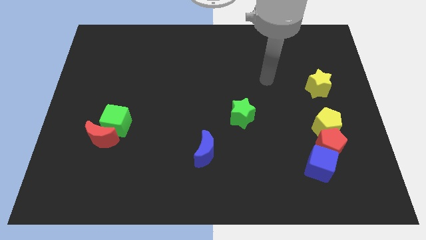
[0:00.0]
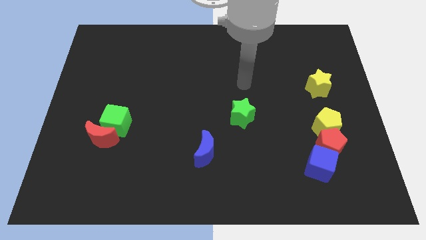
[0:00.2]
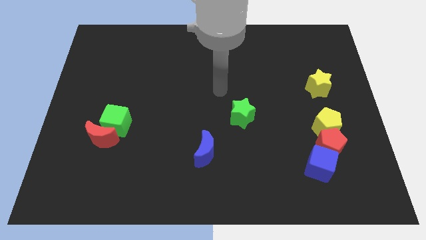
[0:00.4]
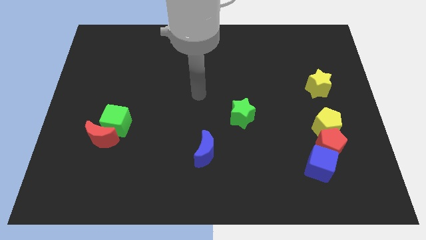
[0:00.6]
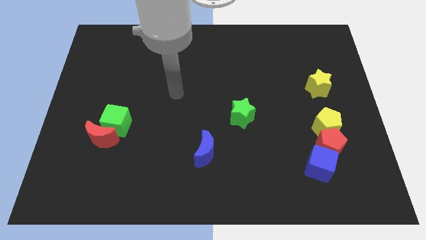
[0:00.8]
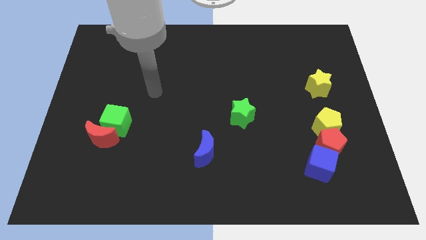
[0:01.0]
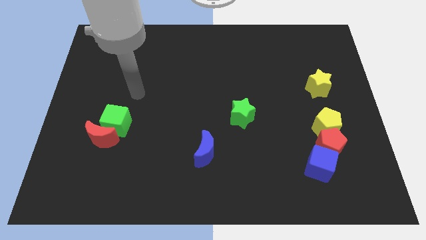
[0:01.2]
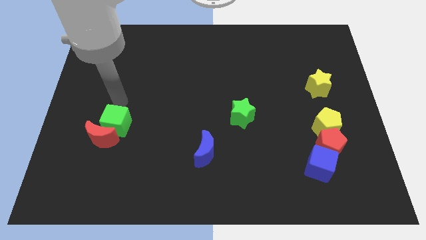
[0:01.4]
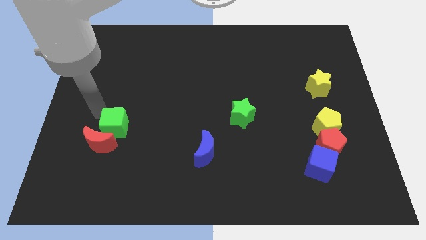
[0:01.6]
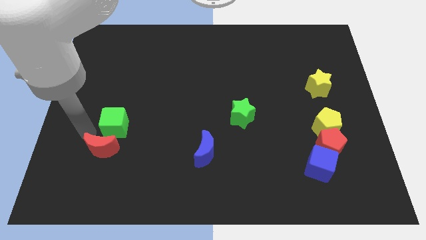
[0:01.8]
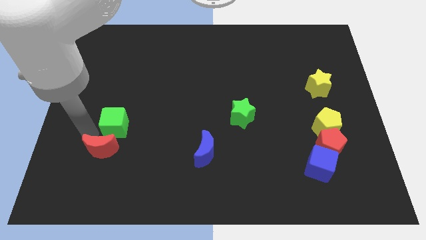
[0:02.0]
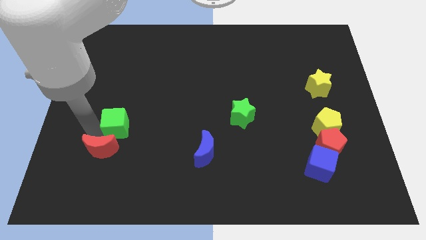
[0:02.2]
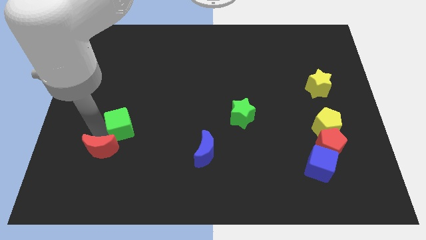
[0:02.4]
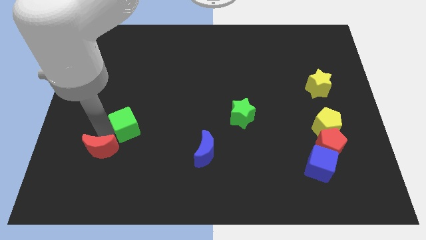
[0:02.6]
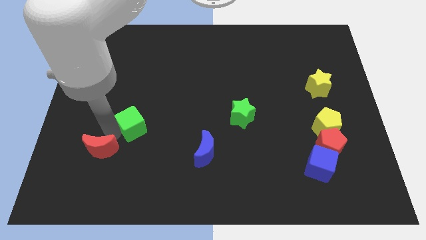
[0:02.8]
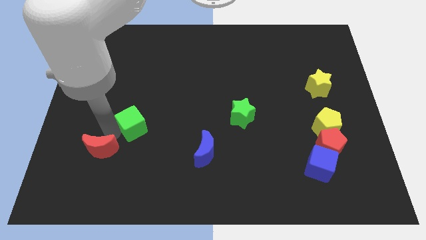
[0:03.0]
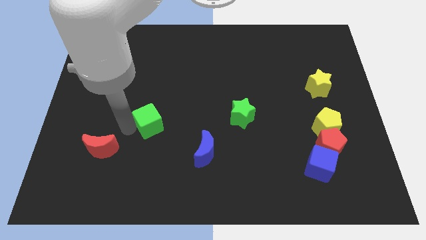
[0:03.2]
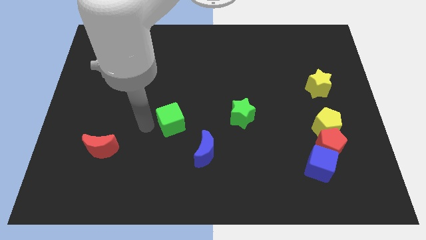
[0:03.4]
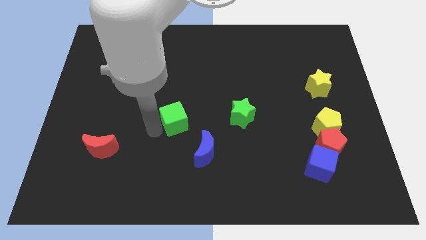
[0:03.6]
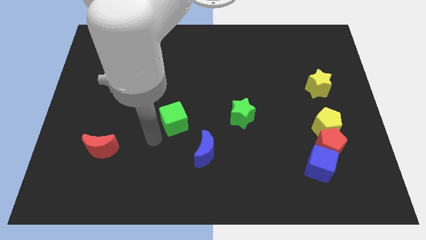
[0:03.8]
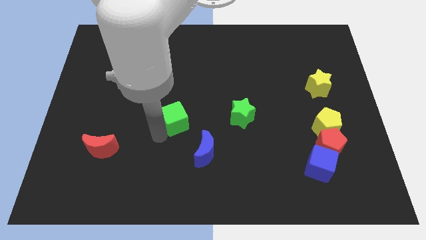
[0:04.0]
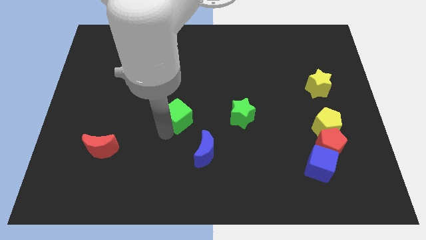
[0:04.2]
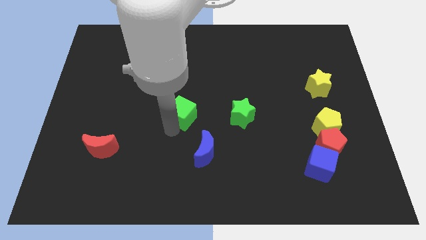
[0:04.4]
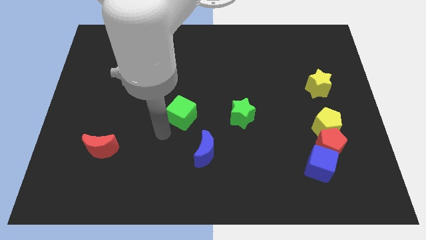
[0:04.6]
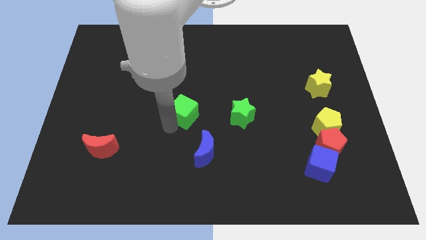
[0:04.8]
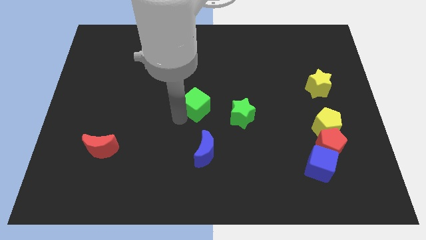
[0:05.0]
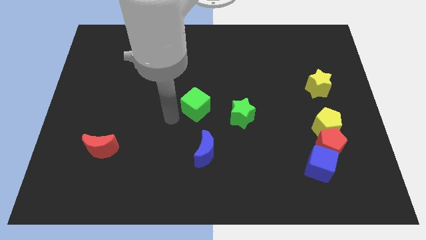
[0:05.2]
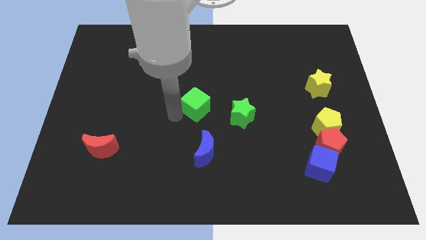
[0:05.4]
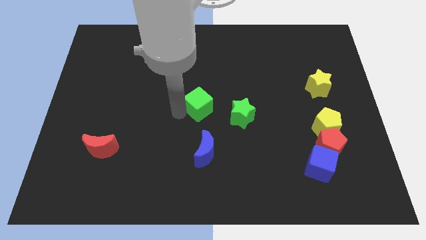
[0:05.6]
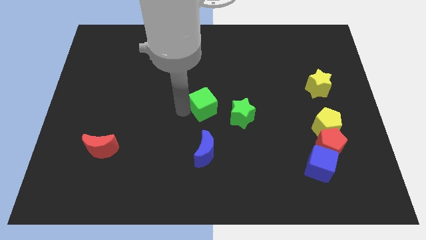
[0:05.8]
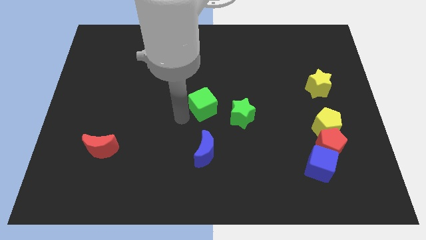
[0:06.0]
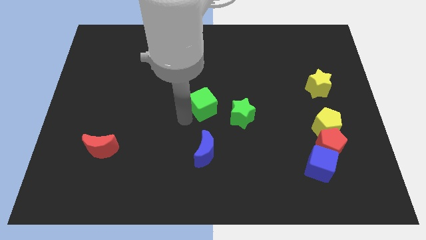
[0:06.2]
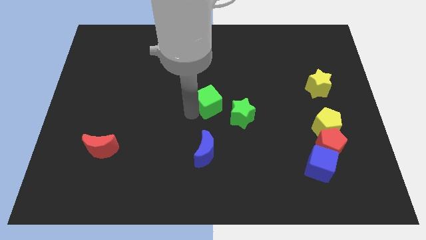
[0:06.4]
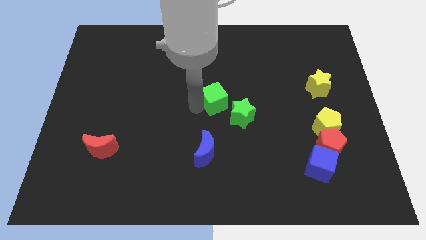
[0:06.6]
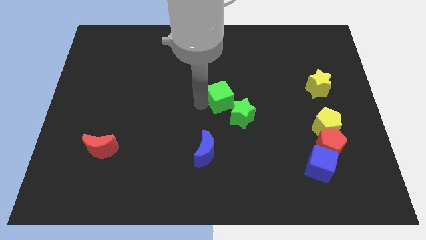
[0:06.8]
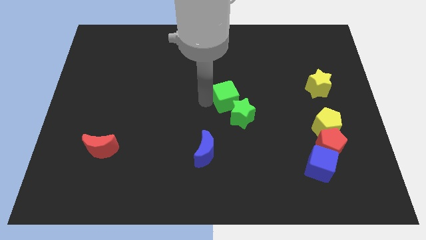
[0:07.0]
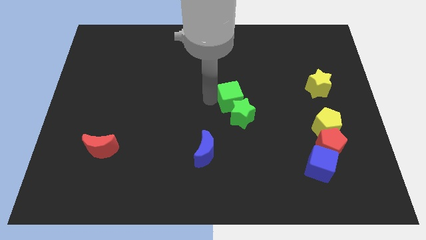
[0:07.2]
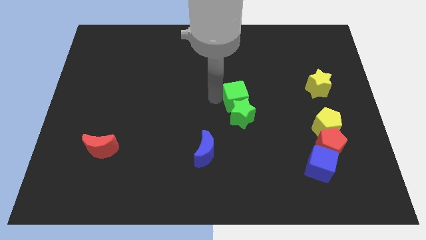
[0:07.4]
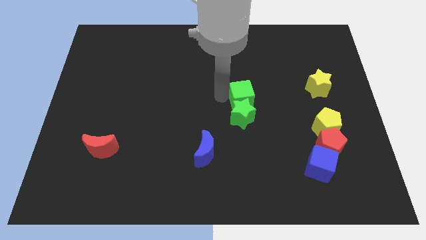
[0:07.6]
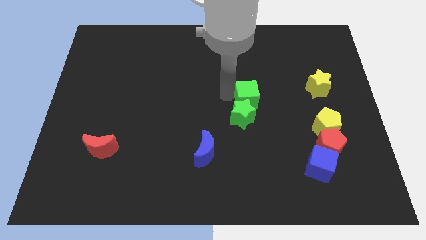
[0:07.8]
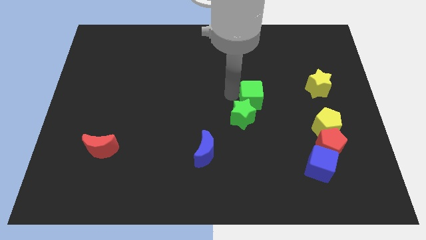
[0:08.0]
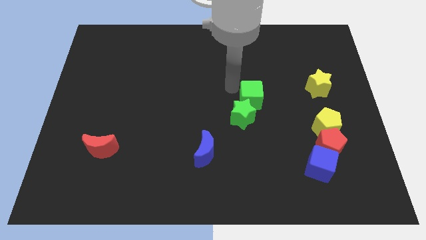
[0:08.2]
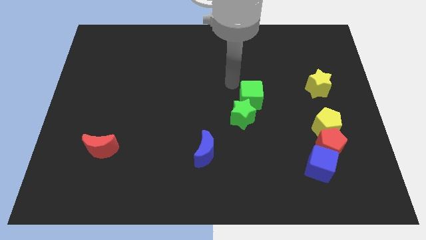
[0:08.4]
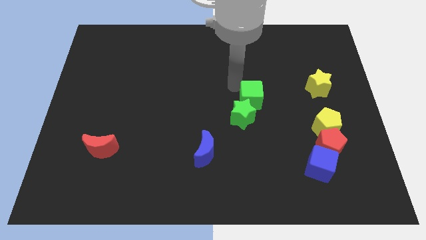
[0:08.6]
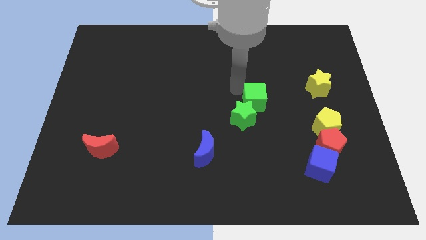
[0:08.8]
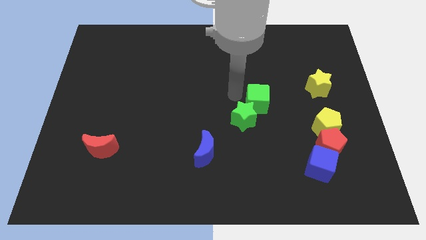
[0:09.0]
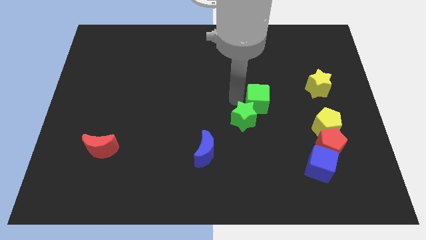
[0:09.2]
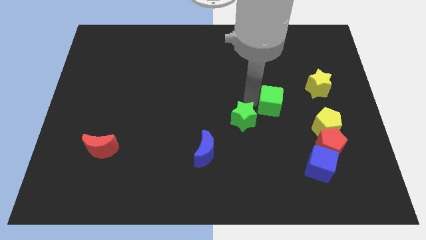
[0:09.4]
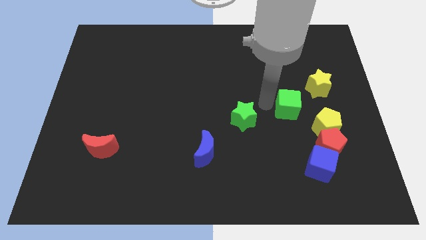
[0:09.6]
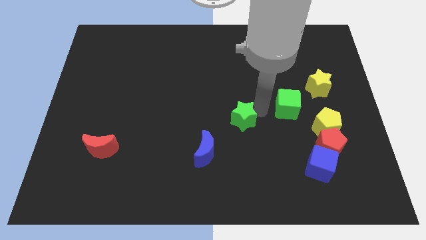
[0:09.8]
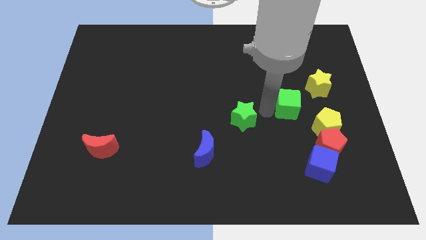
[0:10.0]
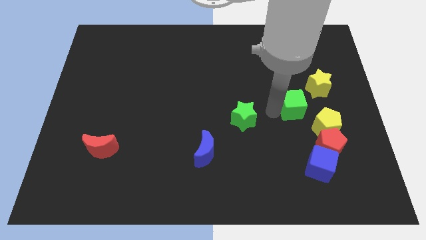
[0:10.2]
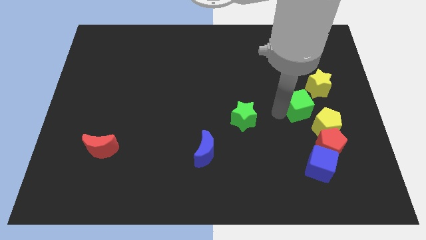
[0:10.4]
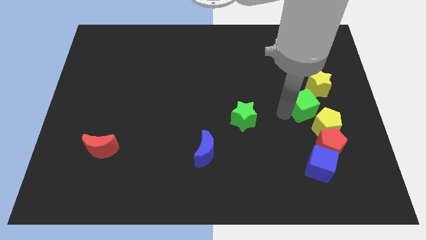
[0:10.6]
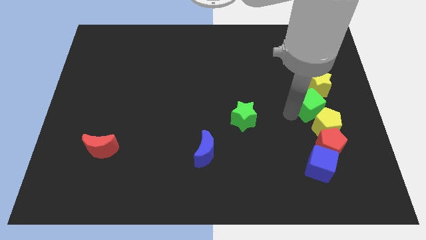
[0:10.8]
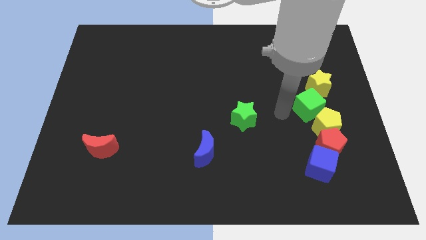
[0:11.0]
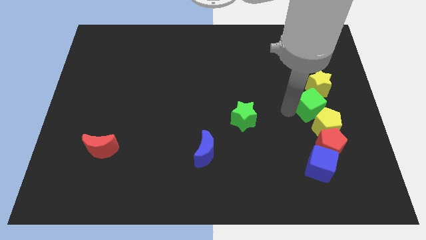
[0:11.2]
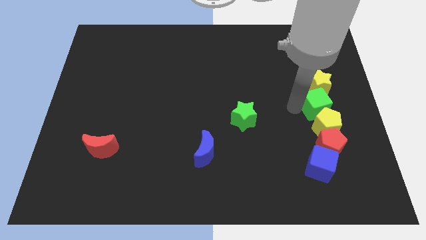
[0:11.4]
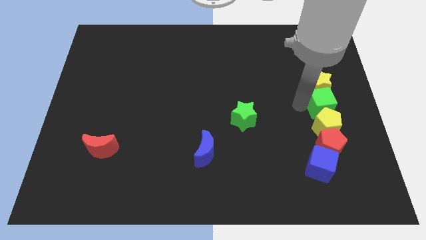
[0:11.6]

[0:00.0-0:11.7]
move the green cube to the center right
